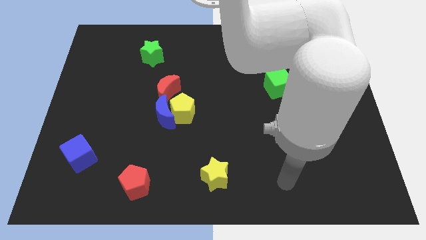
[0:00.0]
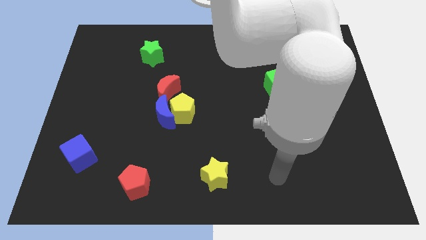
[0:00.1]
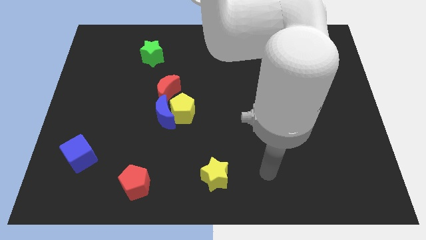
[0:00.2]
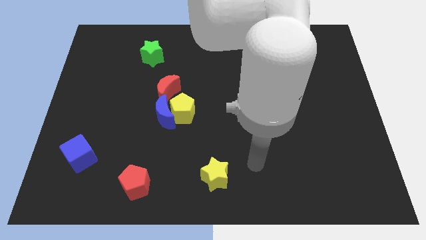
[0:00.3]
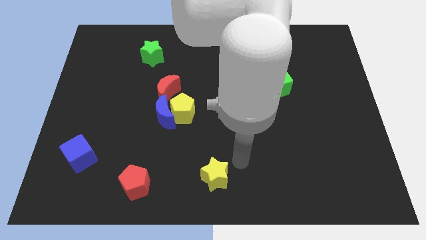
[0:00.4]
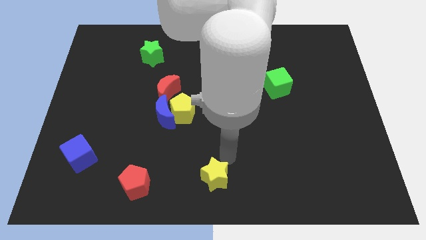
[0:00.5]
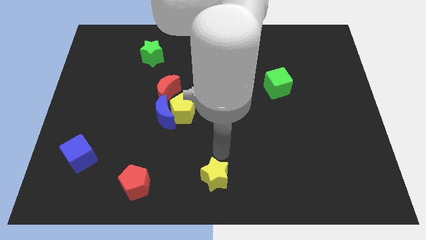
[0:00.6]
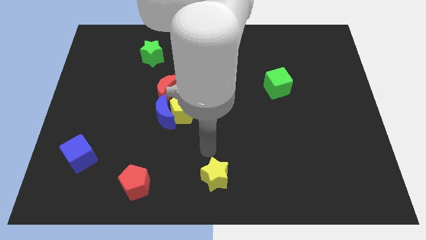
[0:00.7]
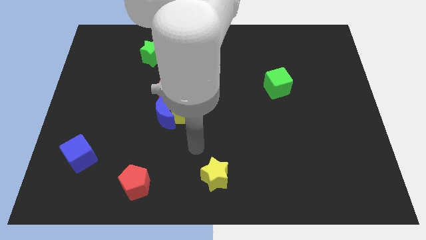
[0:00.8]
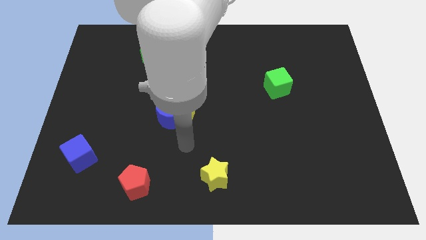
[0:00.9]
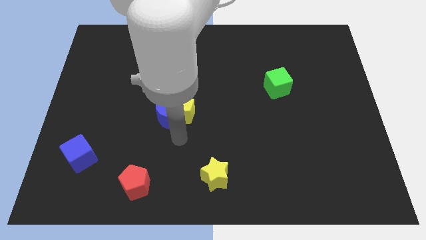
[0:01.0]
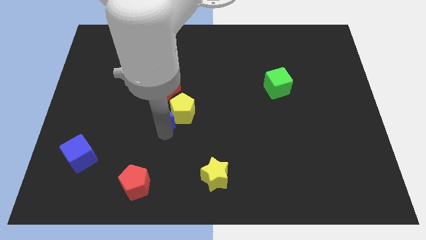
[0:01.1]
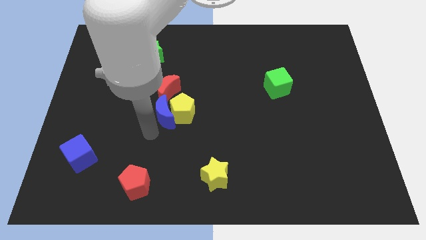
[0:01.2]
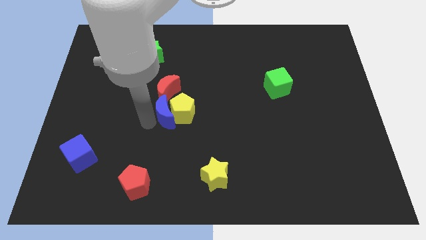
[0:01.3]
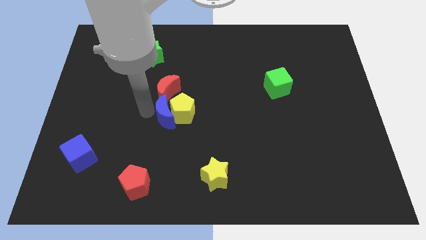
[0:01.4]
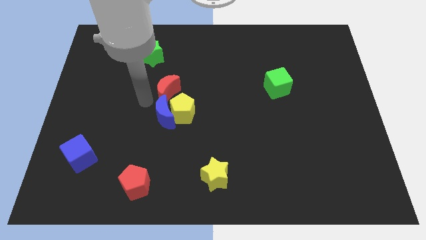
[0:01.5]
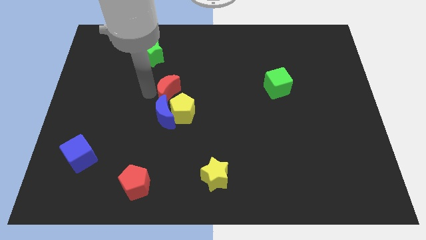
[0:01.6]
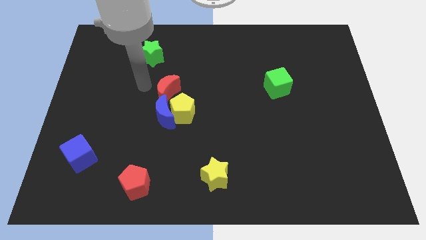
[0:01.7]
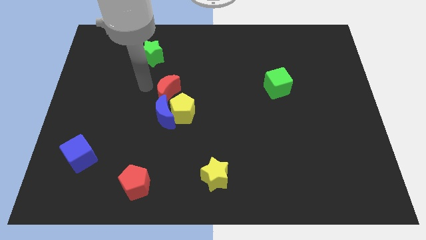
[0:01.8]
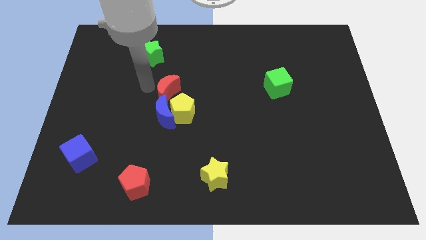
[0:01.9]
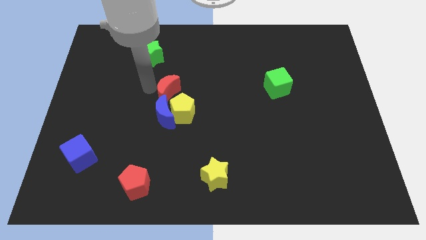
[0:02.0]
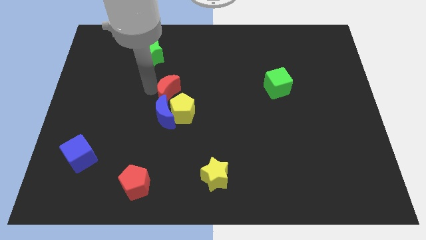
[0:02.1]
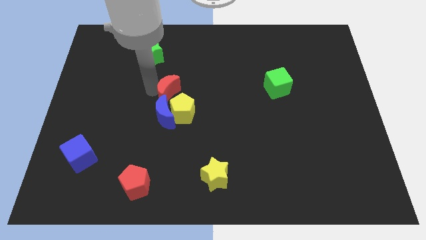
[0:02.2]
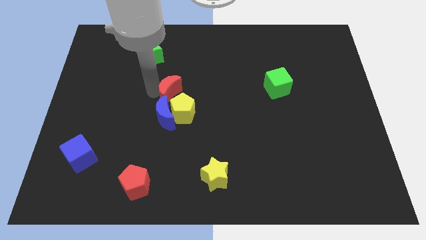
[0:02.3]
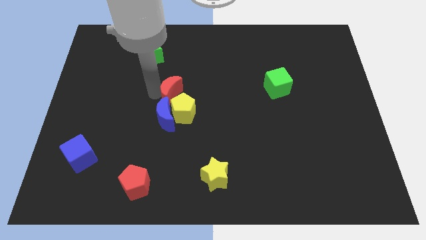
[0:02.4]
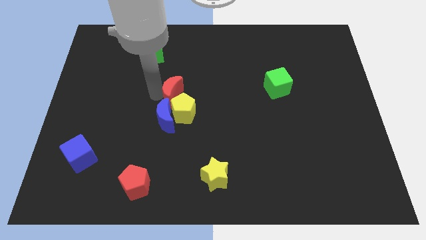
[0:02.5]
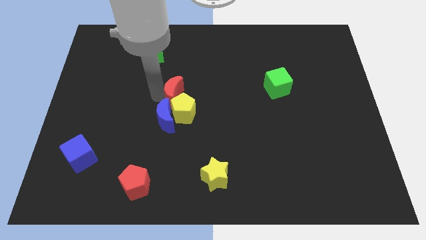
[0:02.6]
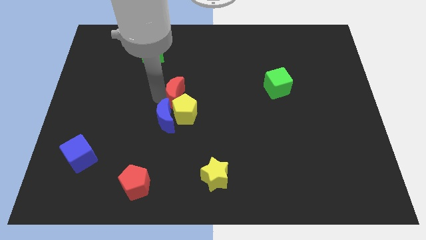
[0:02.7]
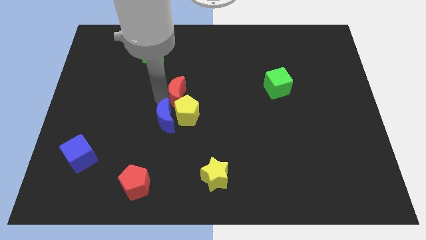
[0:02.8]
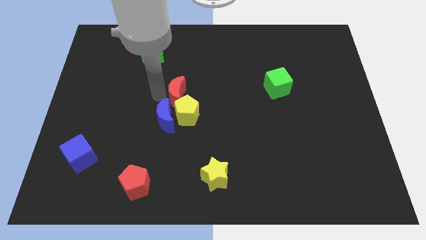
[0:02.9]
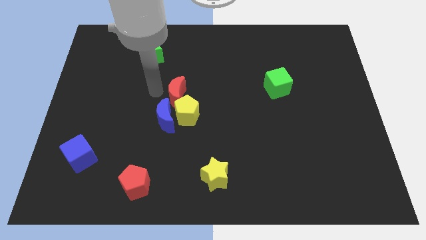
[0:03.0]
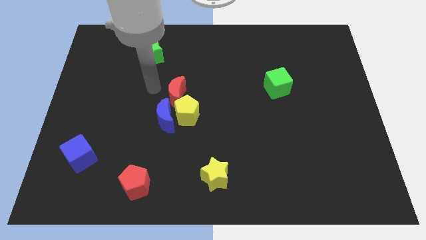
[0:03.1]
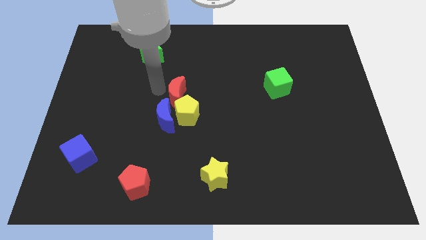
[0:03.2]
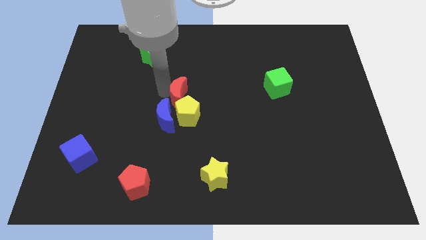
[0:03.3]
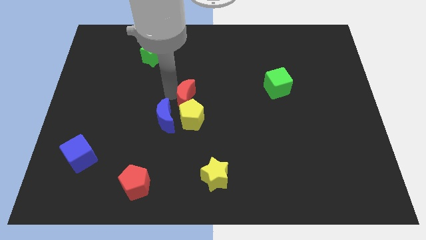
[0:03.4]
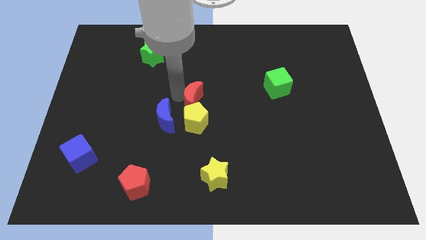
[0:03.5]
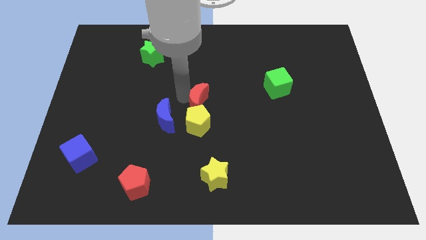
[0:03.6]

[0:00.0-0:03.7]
move the red moon downwards and right diagonally somewhat

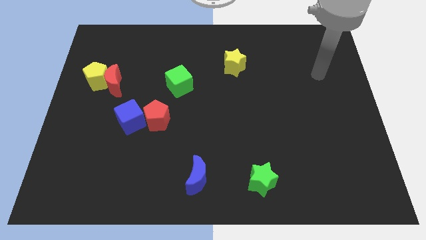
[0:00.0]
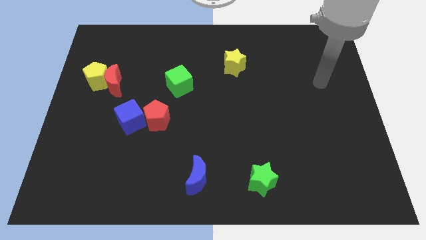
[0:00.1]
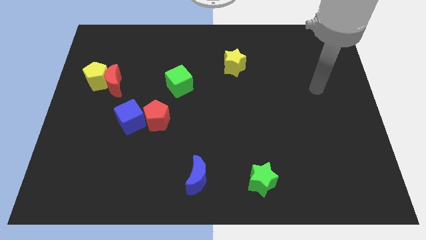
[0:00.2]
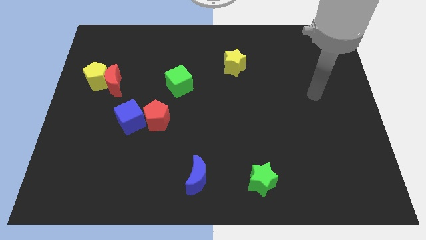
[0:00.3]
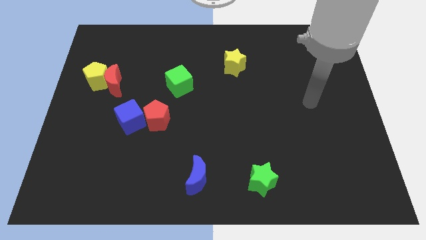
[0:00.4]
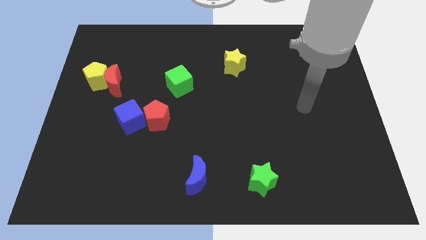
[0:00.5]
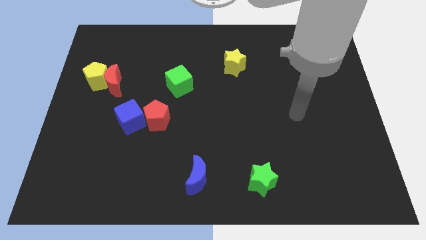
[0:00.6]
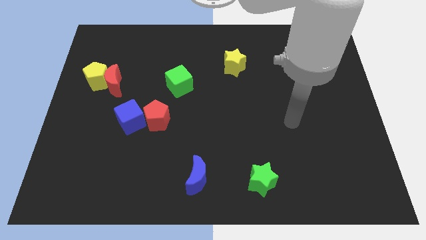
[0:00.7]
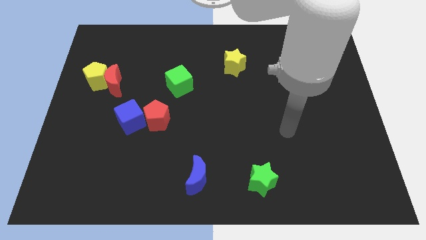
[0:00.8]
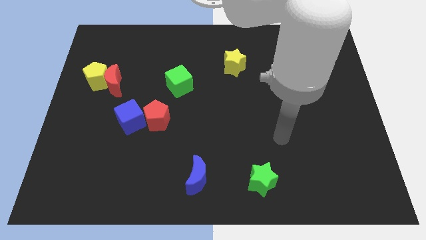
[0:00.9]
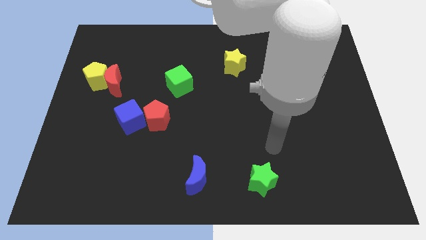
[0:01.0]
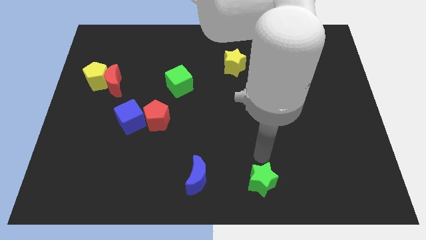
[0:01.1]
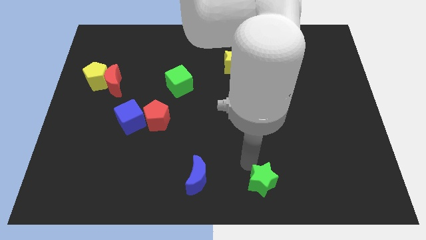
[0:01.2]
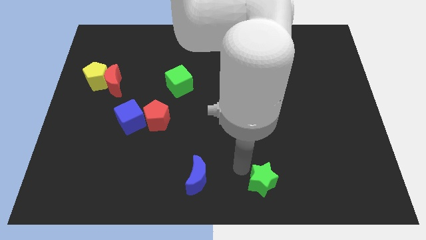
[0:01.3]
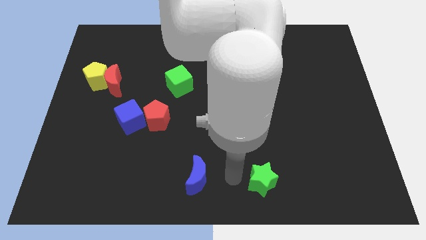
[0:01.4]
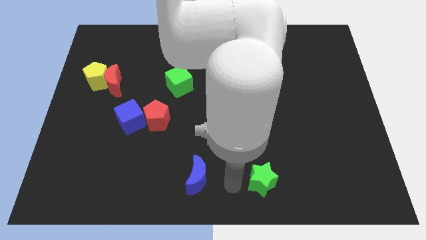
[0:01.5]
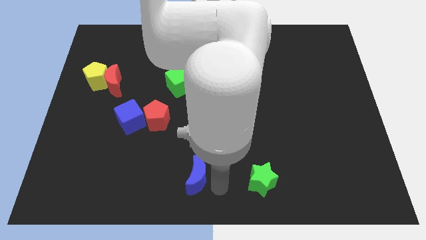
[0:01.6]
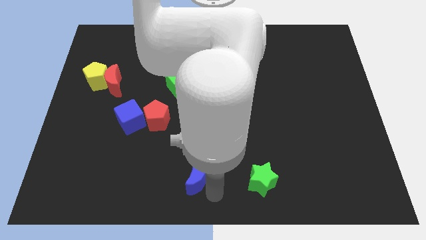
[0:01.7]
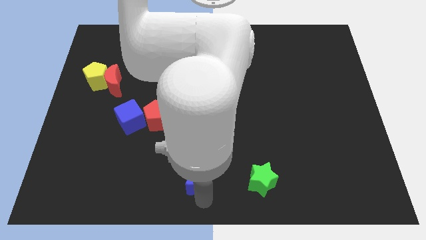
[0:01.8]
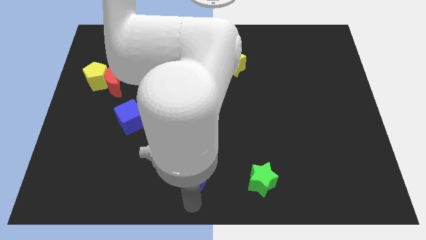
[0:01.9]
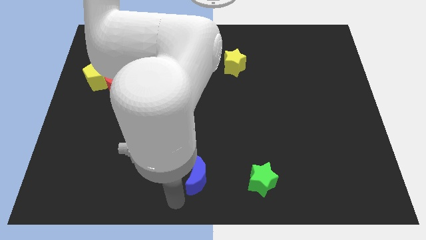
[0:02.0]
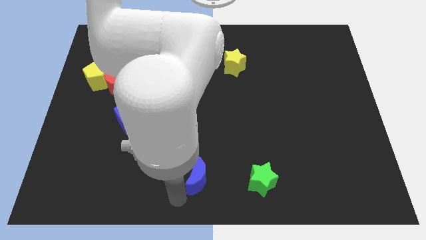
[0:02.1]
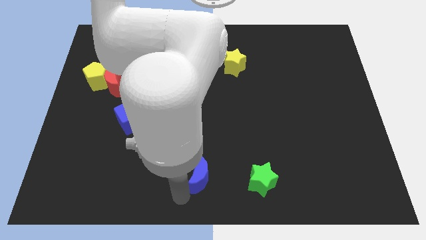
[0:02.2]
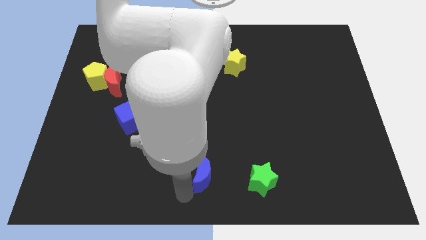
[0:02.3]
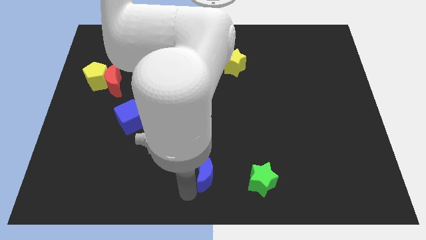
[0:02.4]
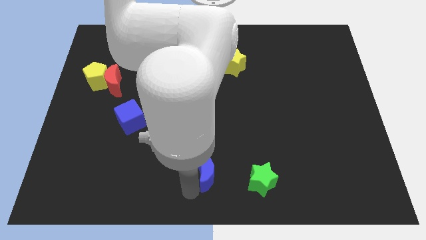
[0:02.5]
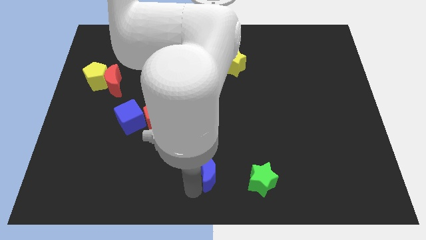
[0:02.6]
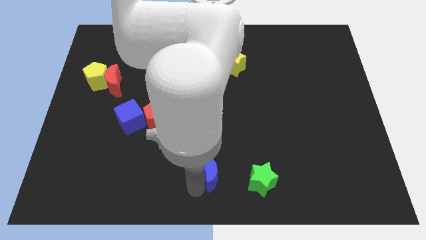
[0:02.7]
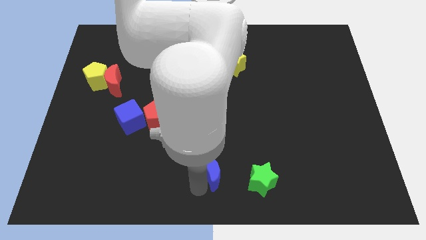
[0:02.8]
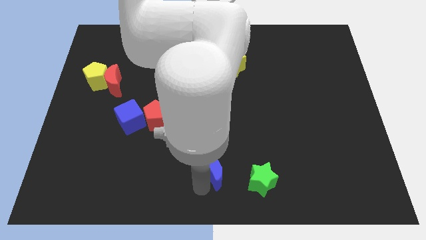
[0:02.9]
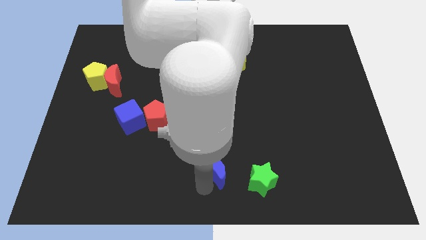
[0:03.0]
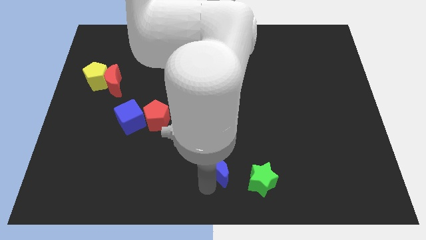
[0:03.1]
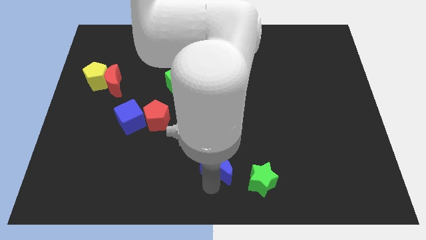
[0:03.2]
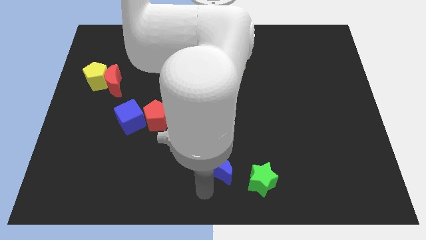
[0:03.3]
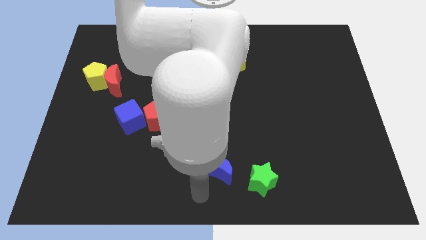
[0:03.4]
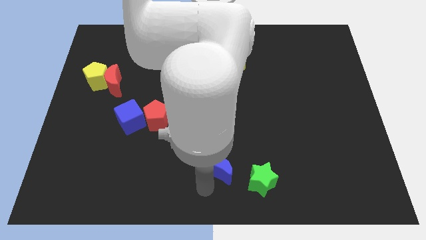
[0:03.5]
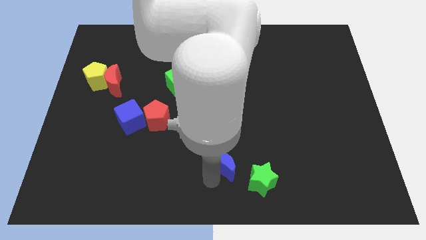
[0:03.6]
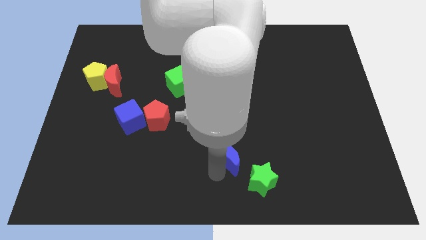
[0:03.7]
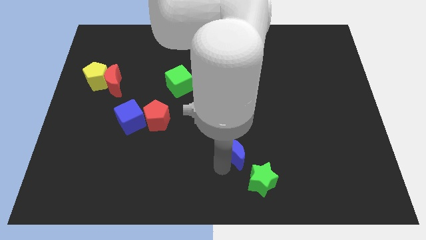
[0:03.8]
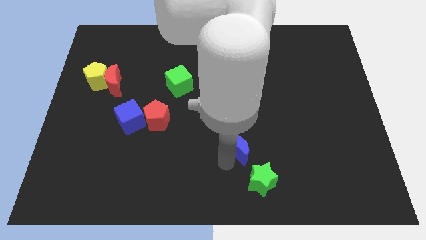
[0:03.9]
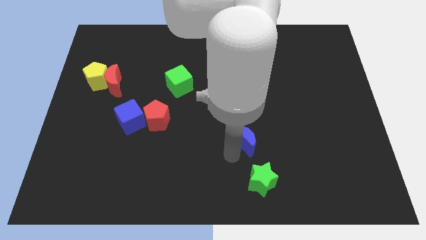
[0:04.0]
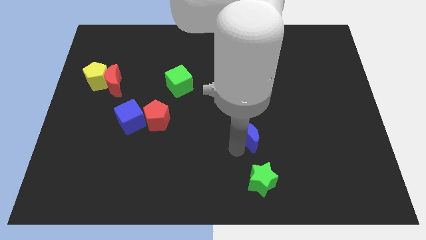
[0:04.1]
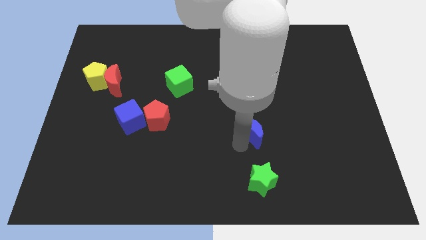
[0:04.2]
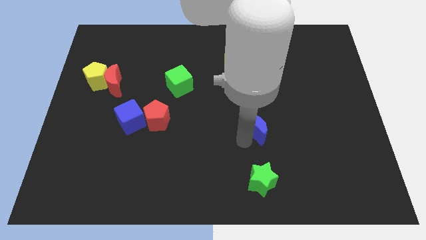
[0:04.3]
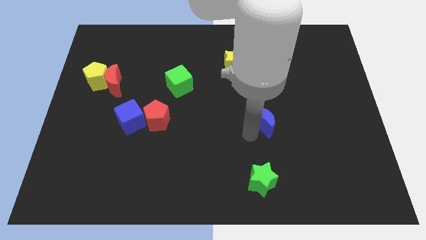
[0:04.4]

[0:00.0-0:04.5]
move the blue moon diagonally up and right

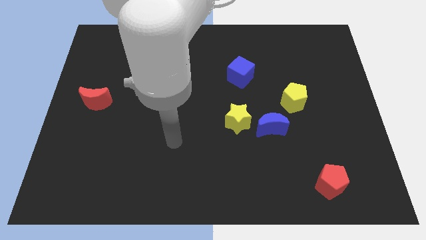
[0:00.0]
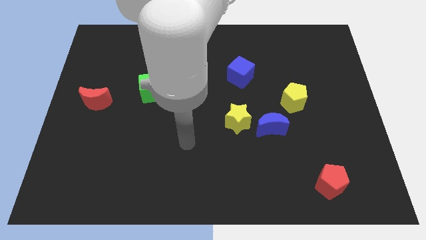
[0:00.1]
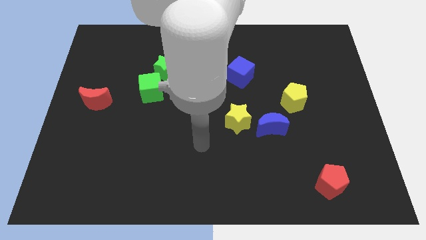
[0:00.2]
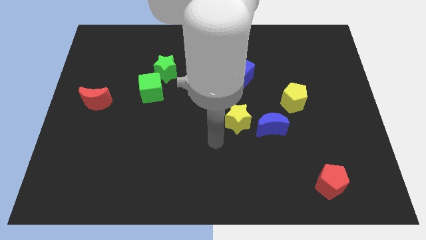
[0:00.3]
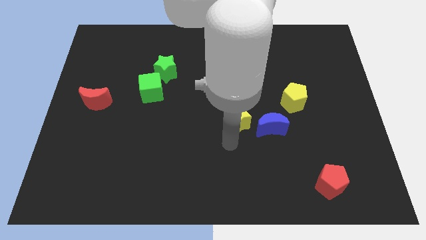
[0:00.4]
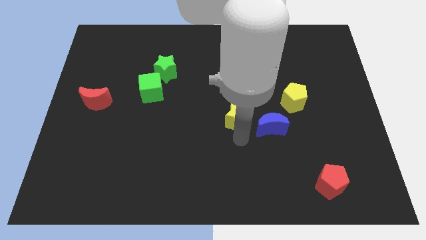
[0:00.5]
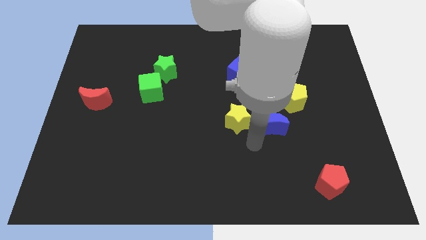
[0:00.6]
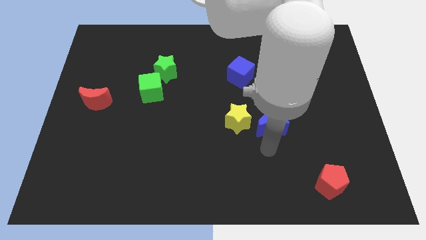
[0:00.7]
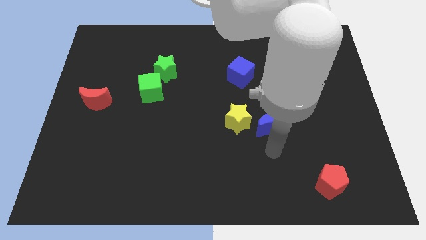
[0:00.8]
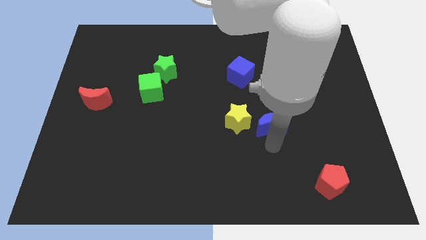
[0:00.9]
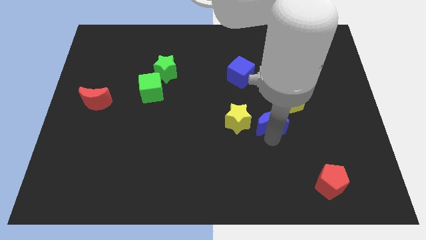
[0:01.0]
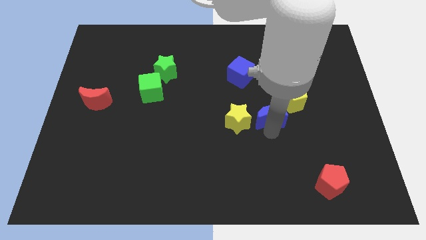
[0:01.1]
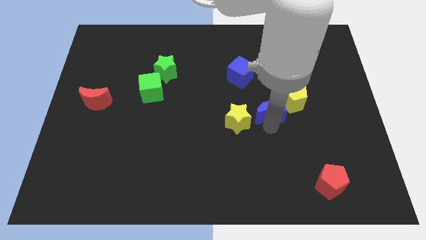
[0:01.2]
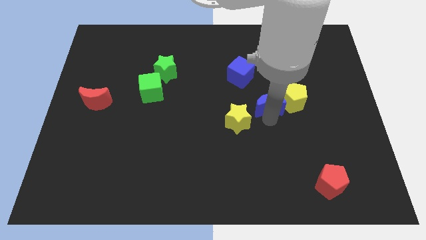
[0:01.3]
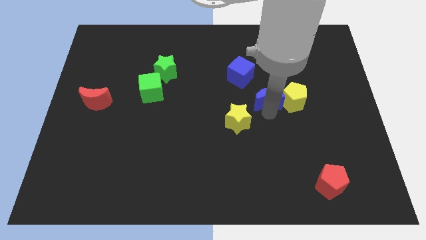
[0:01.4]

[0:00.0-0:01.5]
move the blue moon upwards a little bit
